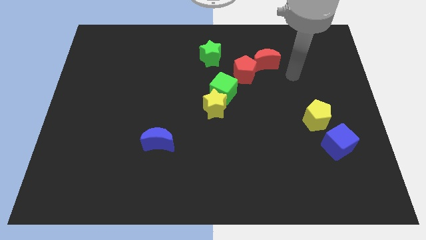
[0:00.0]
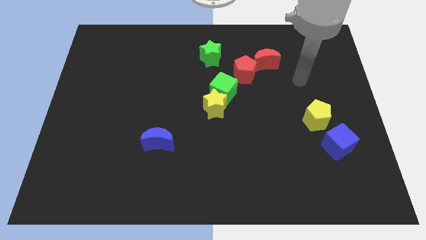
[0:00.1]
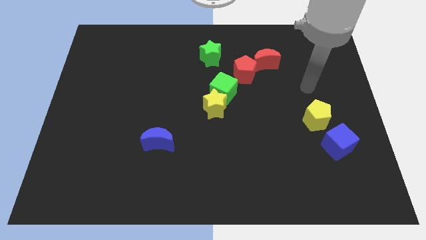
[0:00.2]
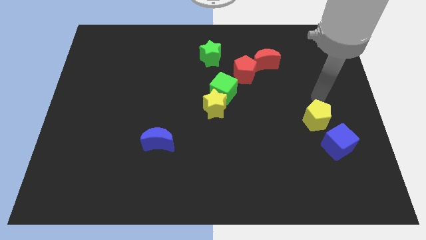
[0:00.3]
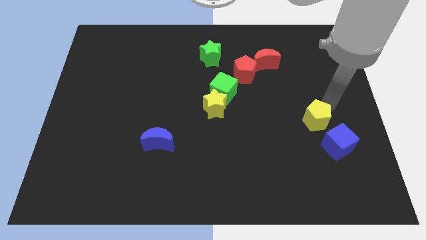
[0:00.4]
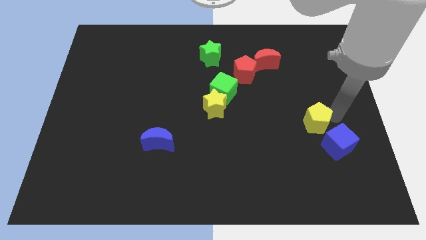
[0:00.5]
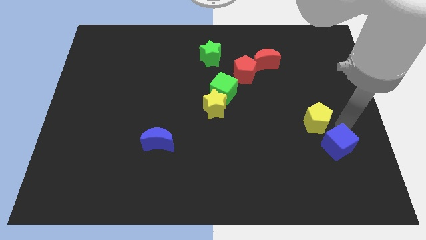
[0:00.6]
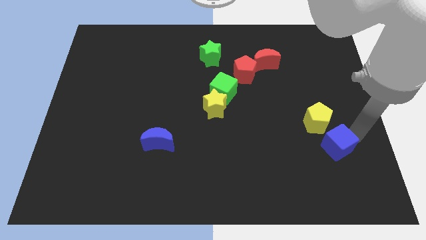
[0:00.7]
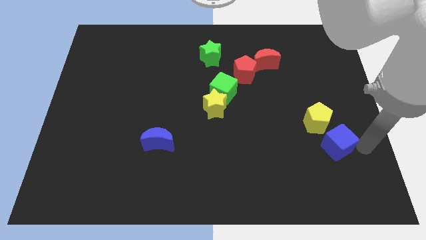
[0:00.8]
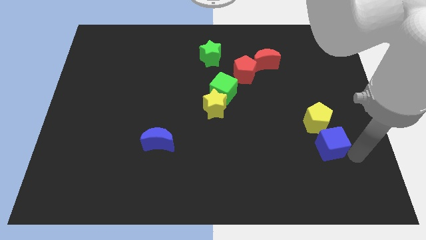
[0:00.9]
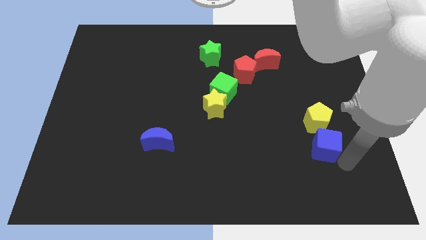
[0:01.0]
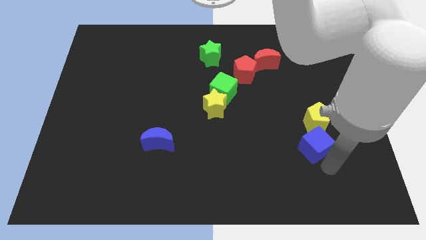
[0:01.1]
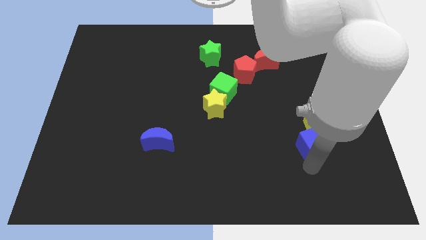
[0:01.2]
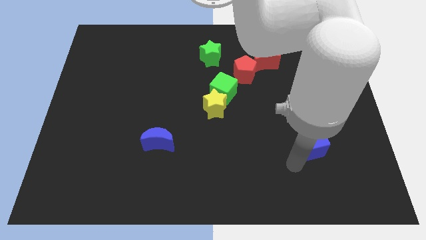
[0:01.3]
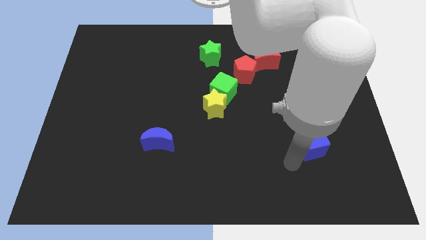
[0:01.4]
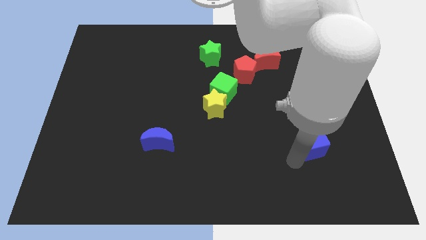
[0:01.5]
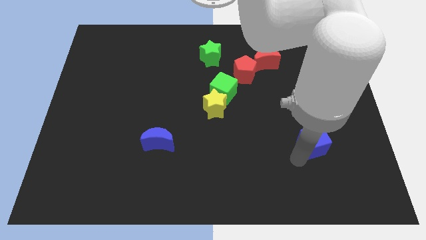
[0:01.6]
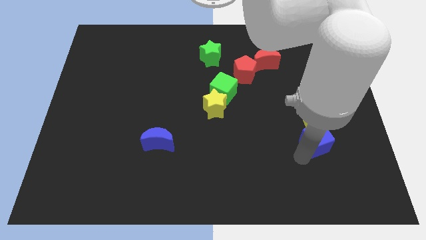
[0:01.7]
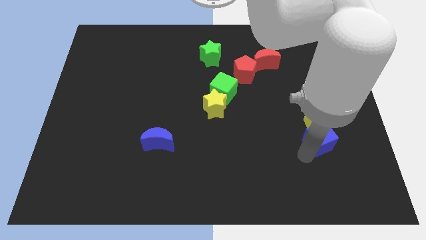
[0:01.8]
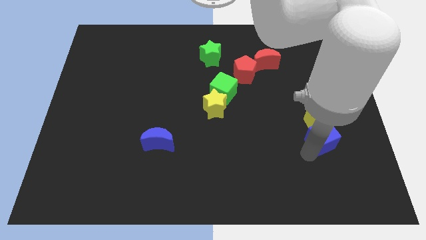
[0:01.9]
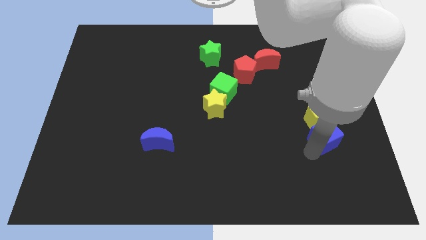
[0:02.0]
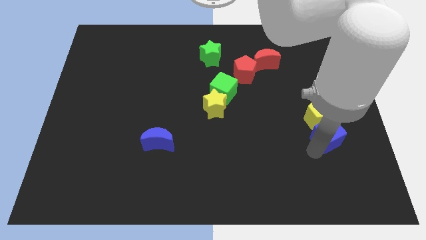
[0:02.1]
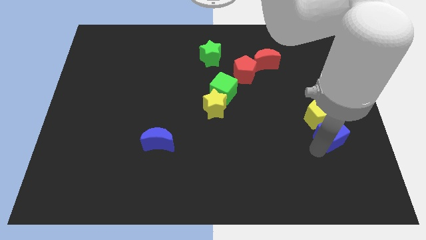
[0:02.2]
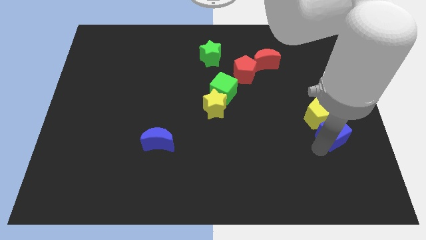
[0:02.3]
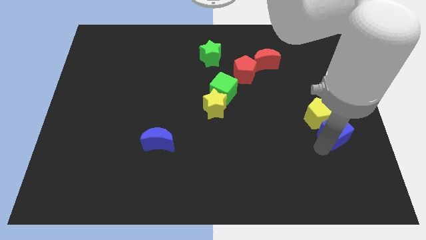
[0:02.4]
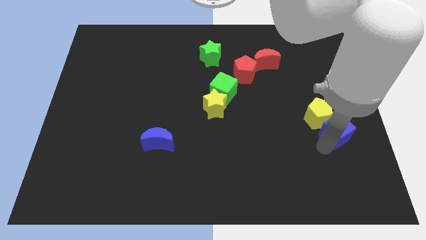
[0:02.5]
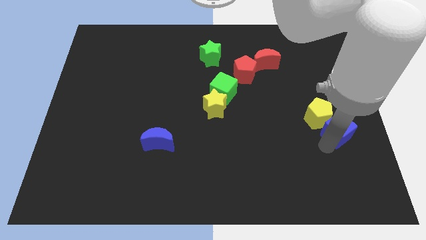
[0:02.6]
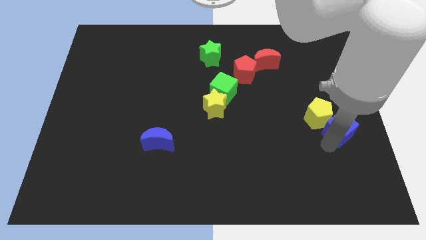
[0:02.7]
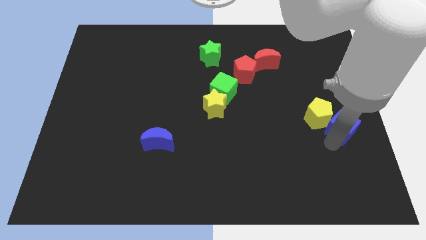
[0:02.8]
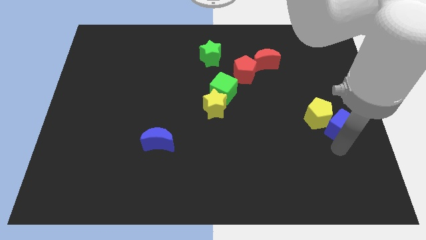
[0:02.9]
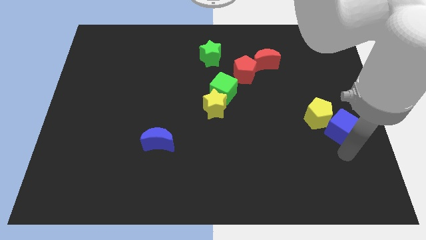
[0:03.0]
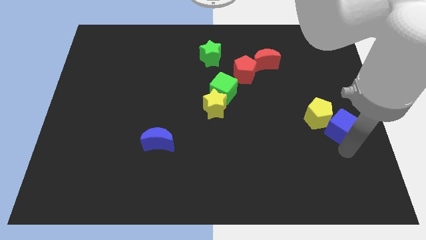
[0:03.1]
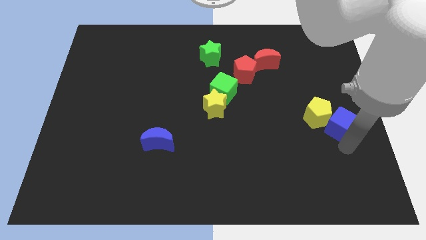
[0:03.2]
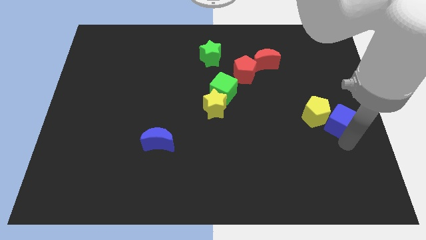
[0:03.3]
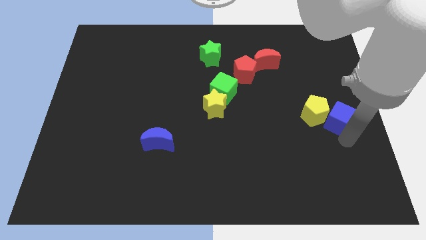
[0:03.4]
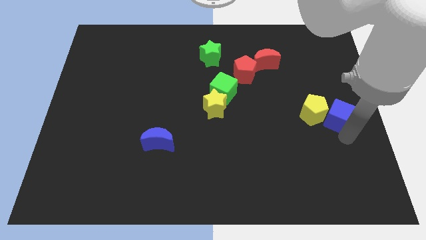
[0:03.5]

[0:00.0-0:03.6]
slightly slide the blue cube upwards

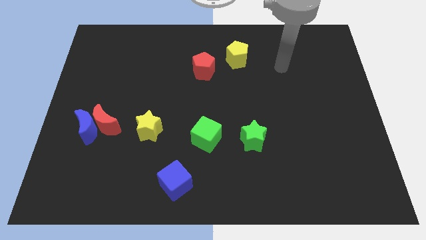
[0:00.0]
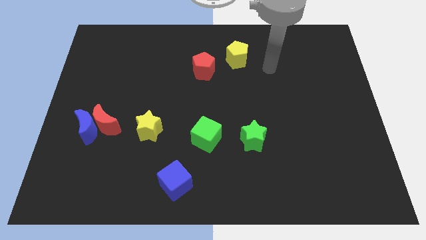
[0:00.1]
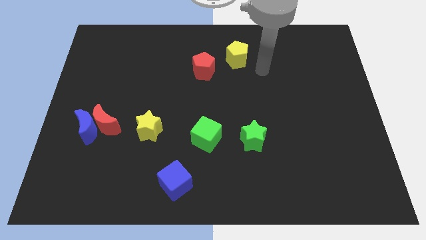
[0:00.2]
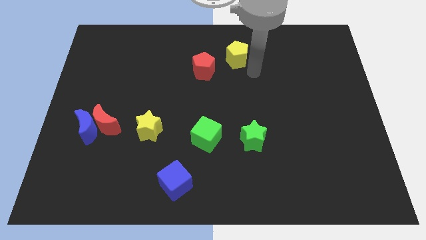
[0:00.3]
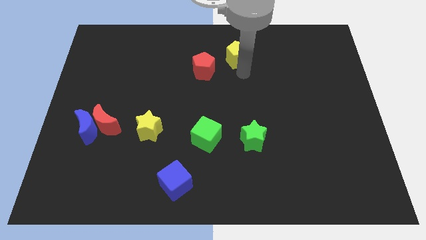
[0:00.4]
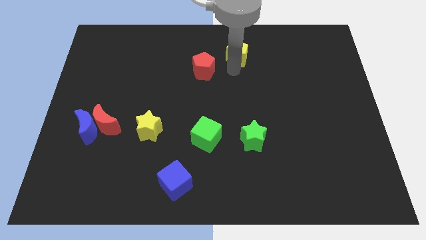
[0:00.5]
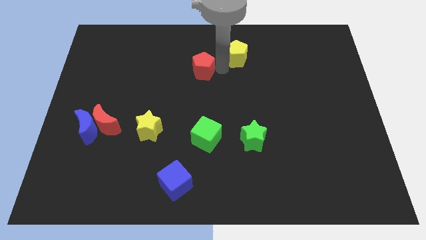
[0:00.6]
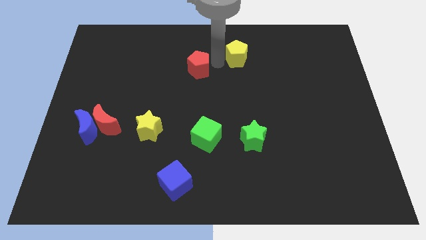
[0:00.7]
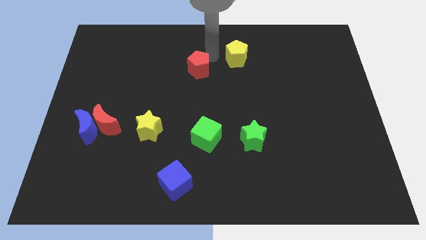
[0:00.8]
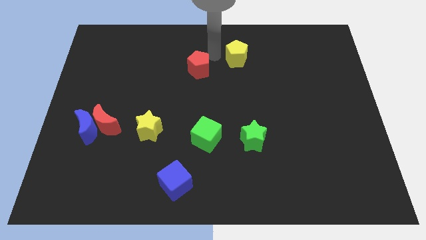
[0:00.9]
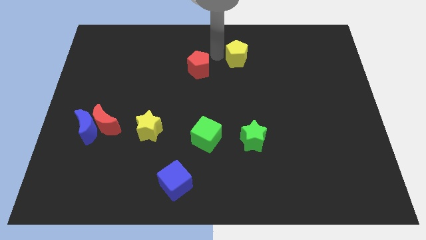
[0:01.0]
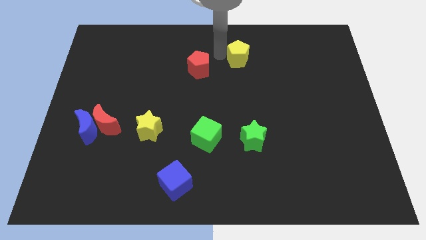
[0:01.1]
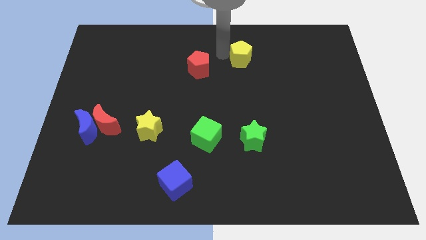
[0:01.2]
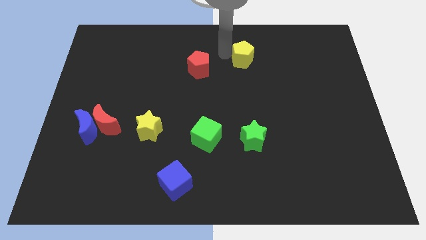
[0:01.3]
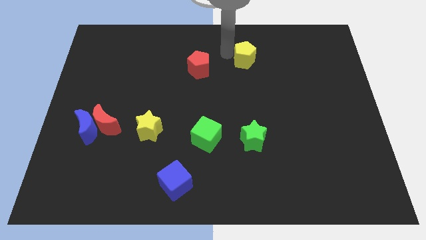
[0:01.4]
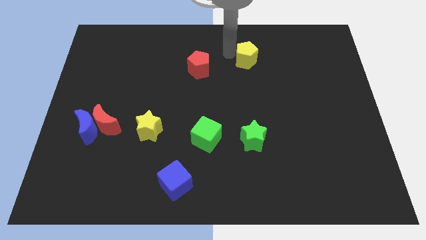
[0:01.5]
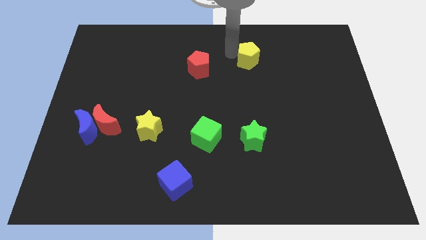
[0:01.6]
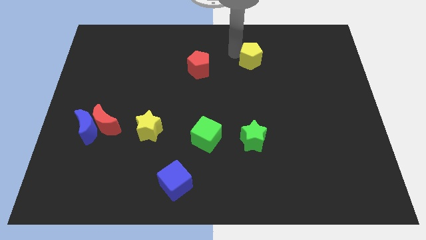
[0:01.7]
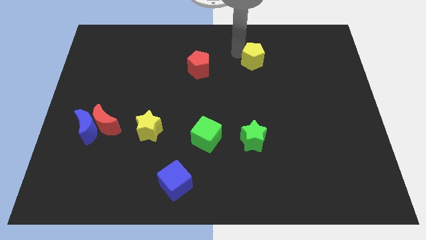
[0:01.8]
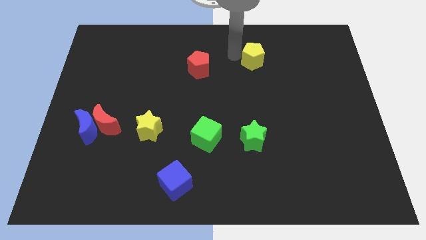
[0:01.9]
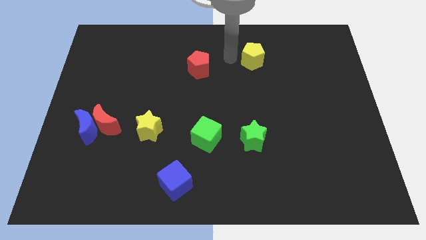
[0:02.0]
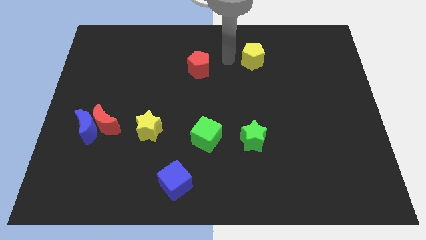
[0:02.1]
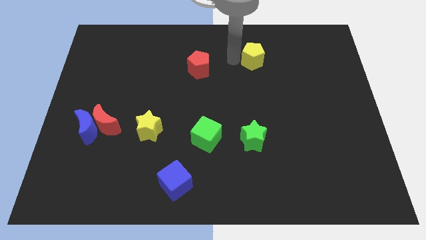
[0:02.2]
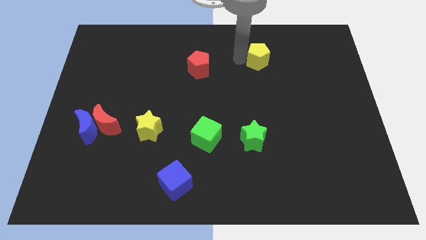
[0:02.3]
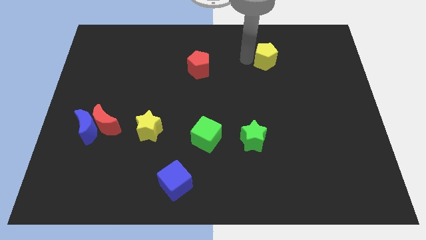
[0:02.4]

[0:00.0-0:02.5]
push the yellow pentagon somewhat right

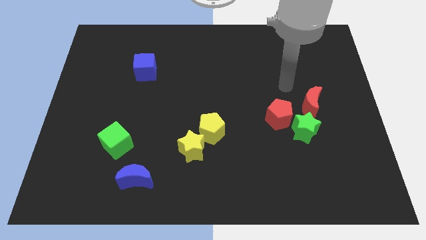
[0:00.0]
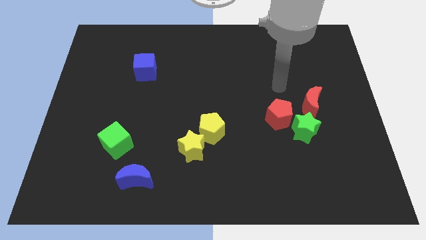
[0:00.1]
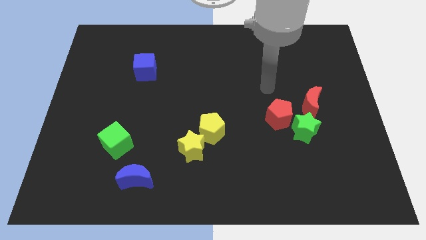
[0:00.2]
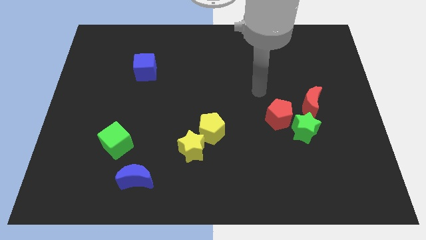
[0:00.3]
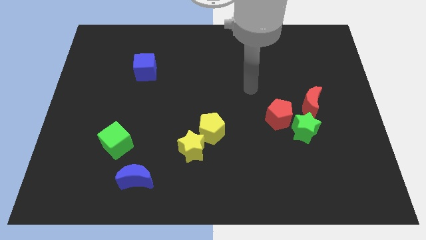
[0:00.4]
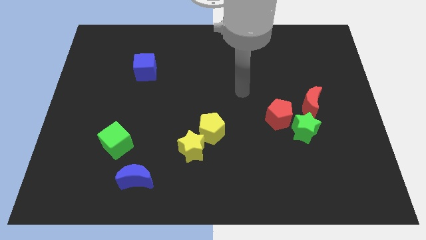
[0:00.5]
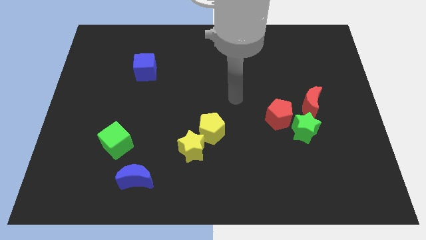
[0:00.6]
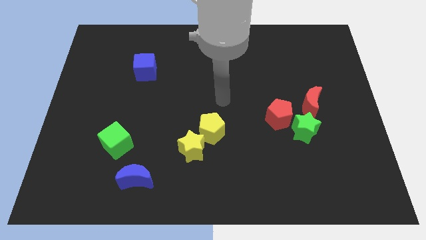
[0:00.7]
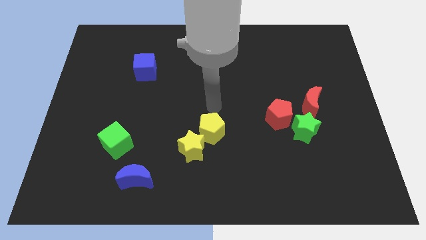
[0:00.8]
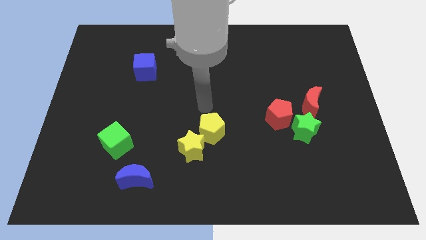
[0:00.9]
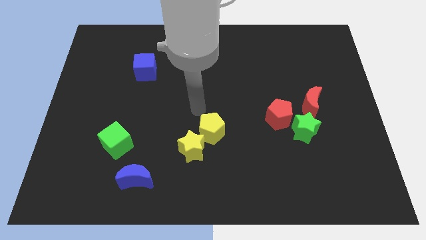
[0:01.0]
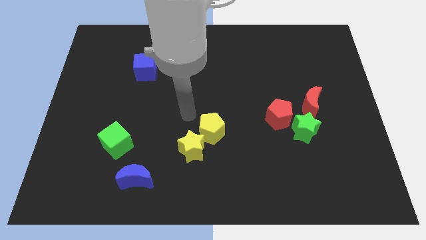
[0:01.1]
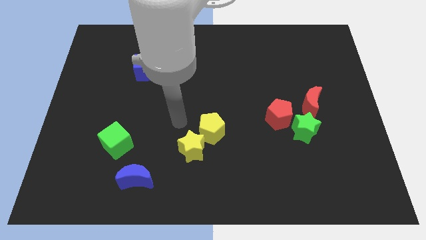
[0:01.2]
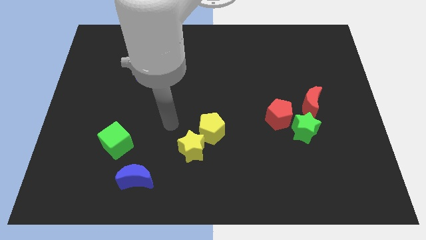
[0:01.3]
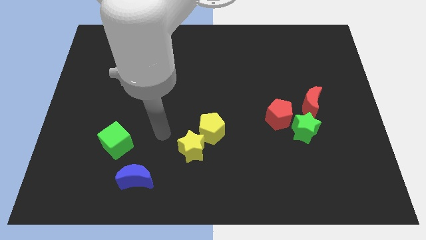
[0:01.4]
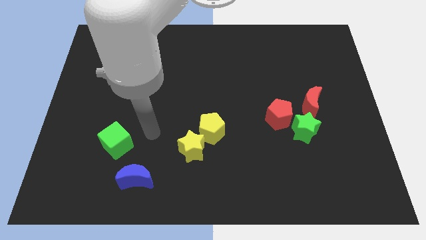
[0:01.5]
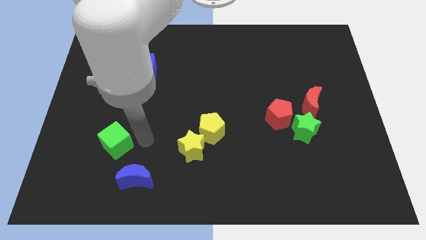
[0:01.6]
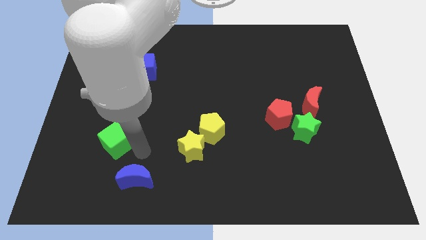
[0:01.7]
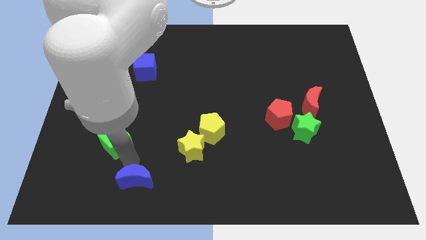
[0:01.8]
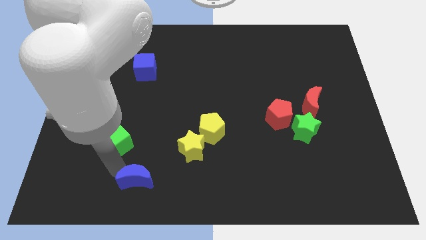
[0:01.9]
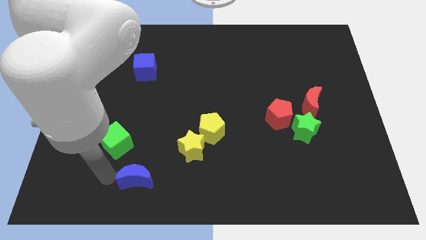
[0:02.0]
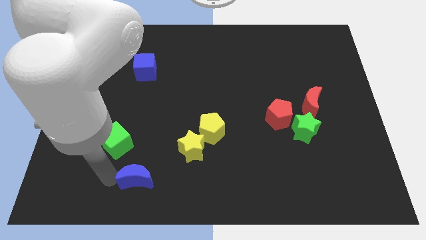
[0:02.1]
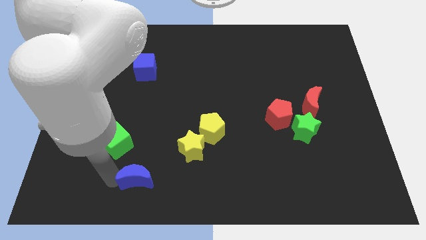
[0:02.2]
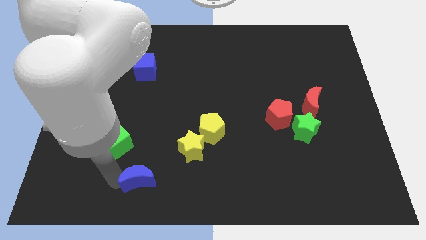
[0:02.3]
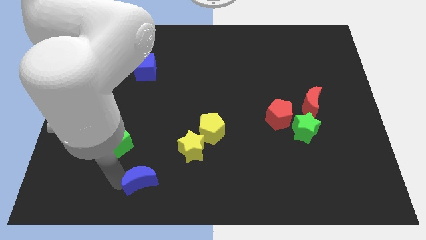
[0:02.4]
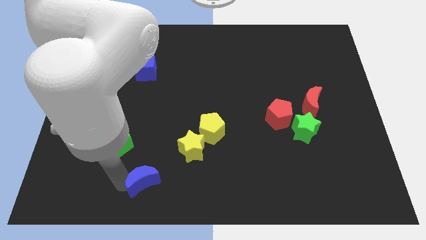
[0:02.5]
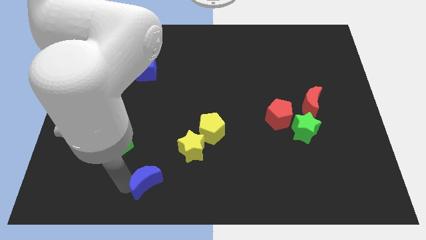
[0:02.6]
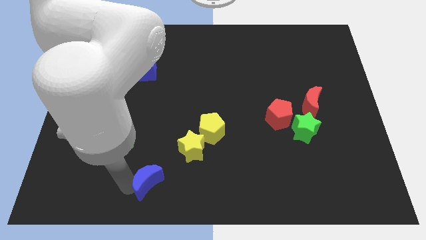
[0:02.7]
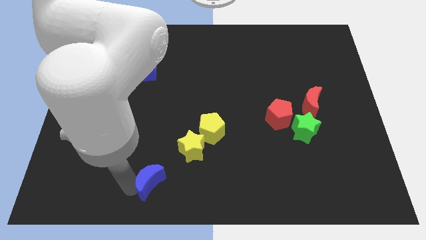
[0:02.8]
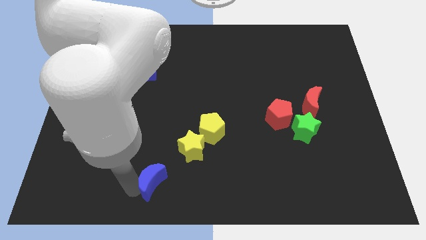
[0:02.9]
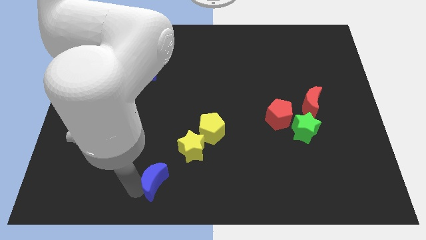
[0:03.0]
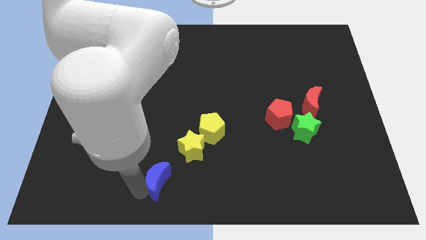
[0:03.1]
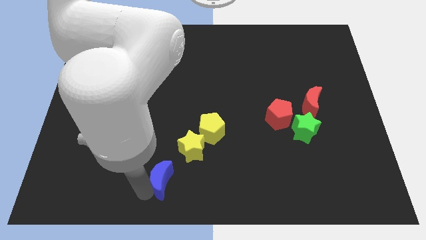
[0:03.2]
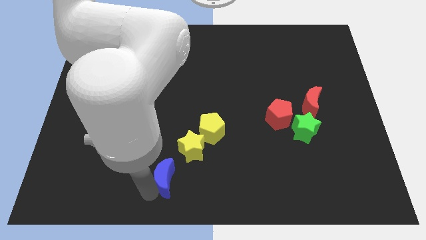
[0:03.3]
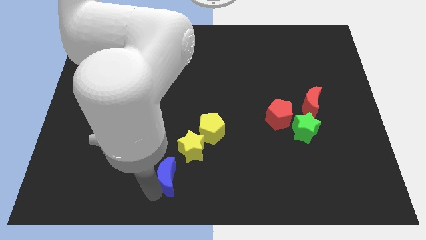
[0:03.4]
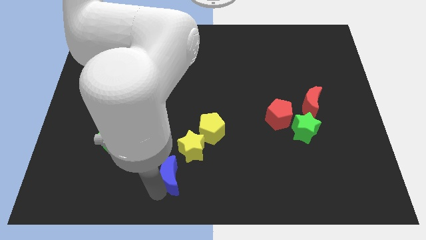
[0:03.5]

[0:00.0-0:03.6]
move the blue moon right a little bit
